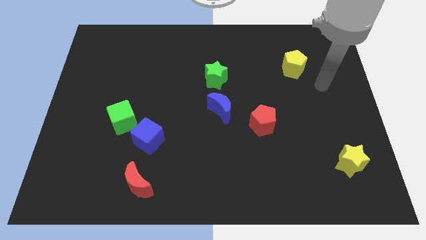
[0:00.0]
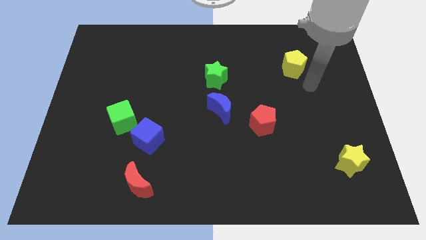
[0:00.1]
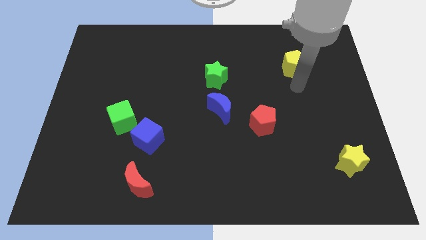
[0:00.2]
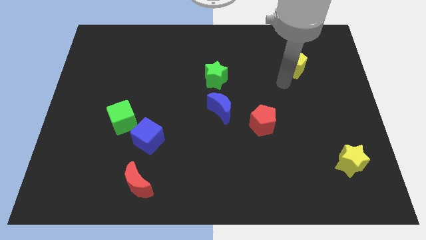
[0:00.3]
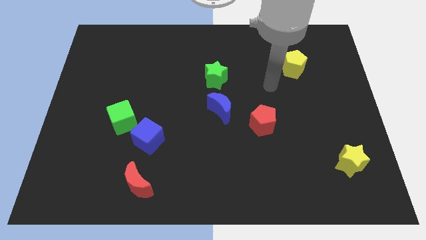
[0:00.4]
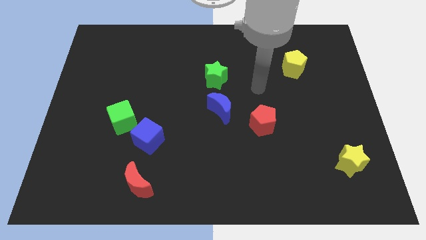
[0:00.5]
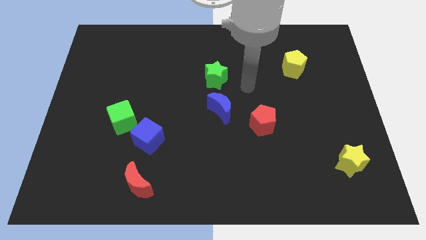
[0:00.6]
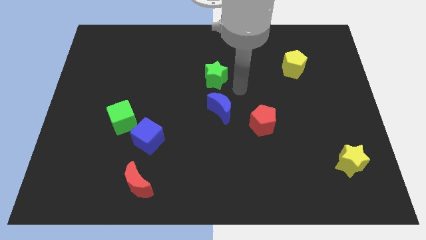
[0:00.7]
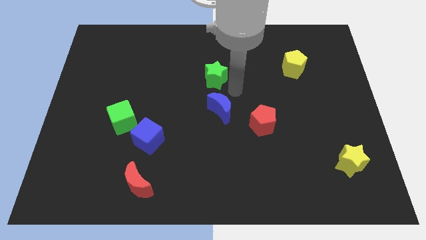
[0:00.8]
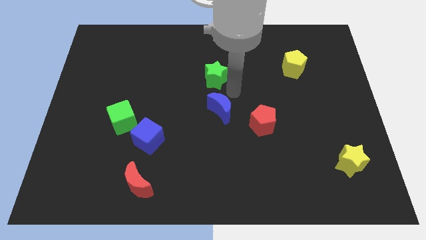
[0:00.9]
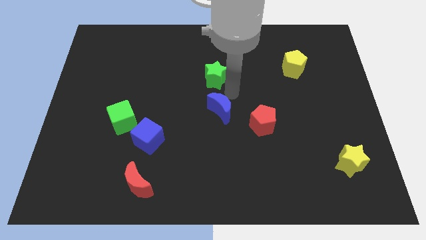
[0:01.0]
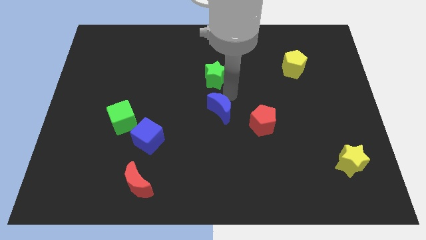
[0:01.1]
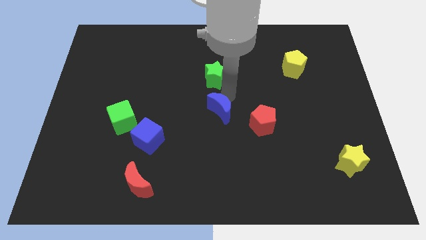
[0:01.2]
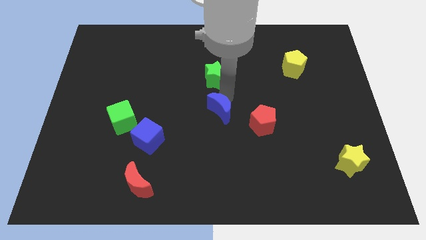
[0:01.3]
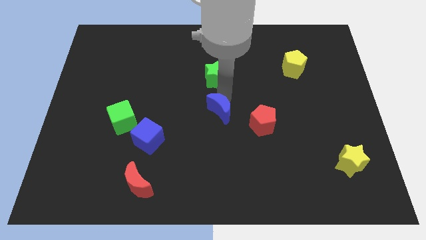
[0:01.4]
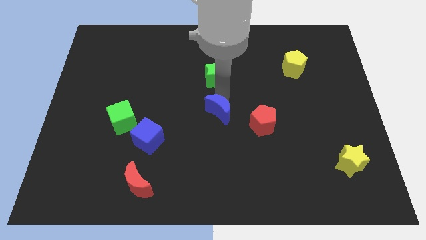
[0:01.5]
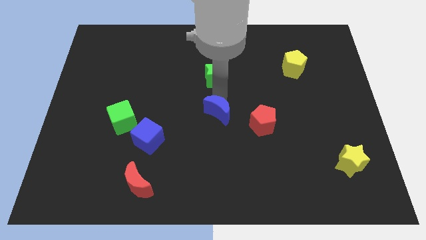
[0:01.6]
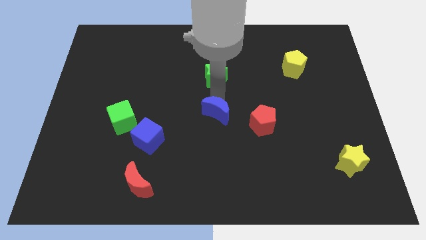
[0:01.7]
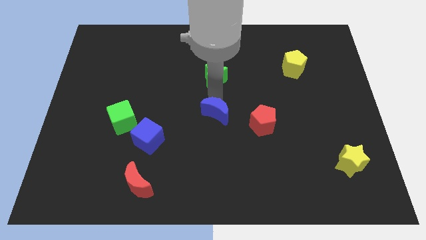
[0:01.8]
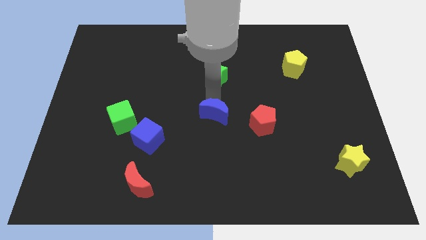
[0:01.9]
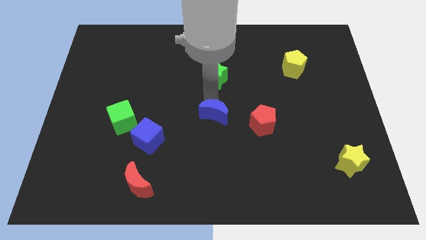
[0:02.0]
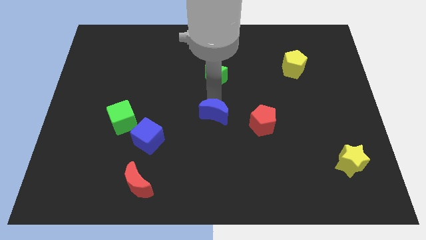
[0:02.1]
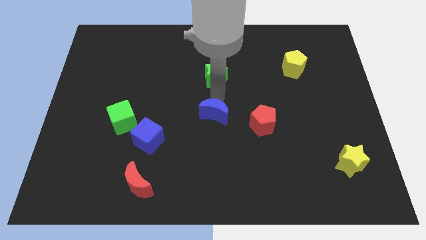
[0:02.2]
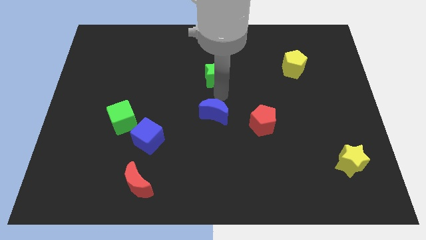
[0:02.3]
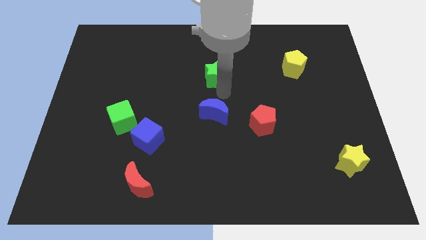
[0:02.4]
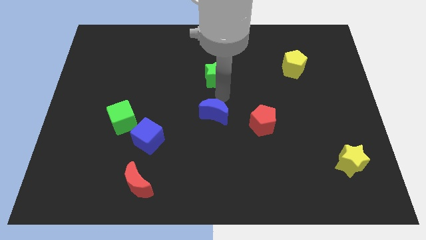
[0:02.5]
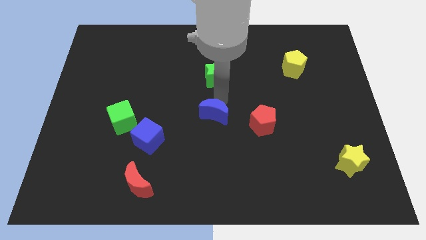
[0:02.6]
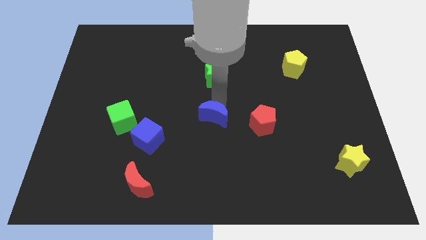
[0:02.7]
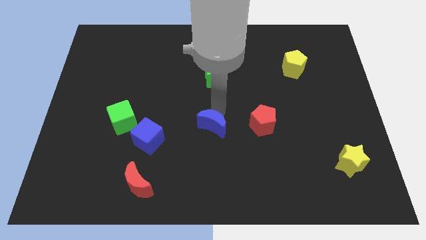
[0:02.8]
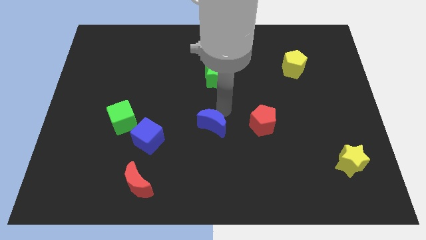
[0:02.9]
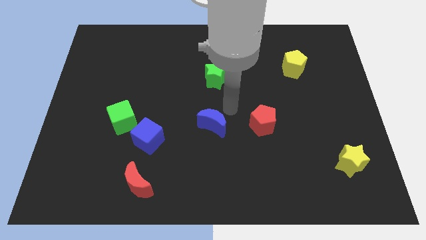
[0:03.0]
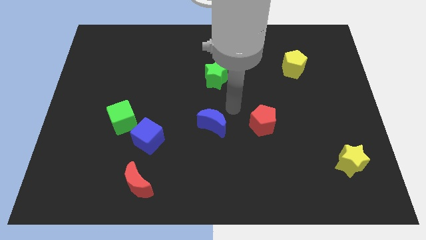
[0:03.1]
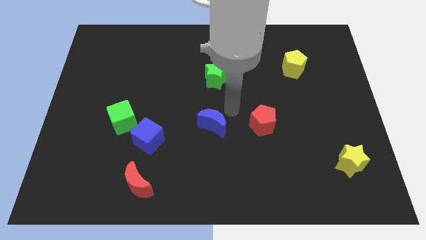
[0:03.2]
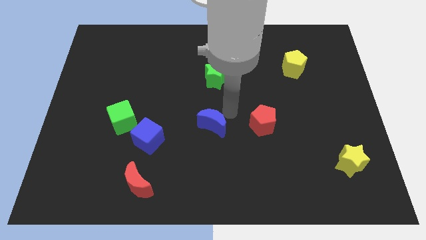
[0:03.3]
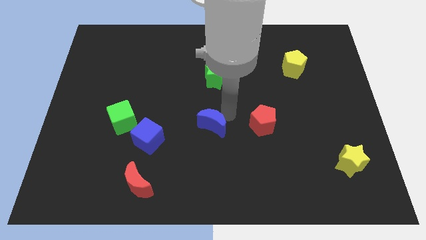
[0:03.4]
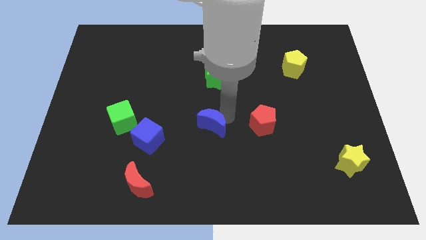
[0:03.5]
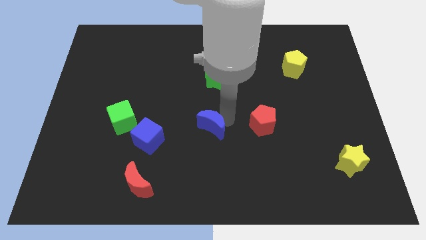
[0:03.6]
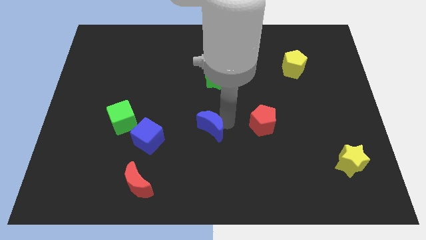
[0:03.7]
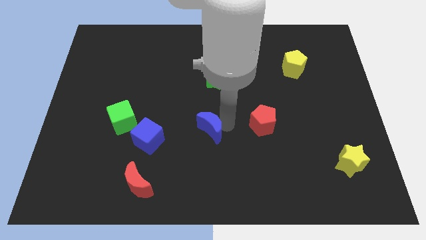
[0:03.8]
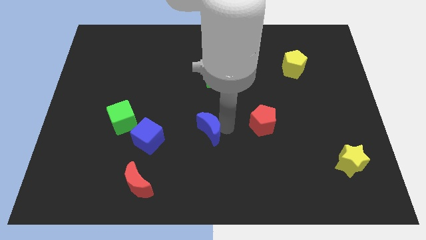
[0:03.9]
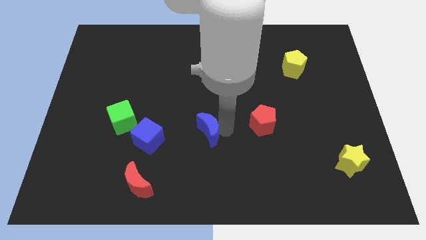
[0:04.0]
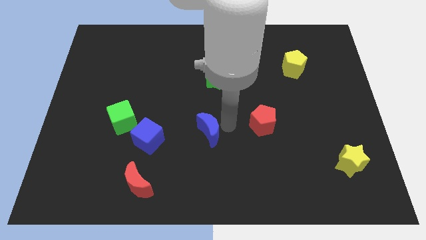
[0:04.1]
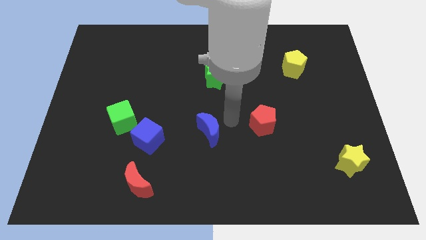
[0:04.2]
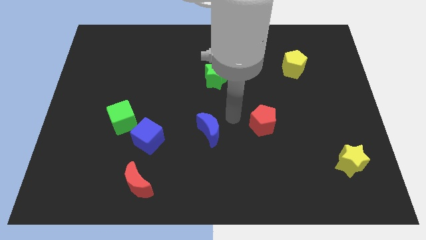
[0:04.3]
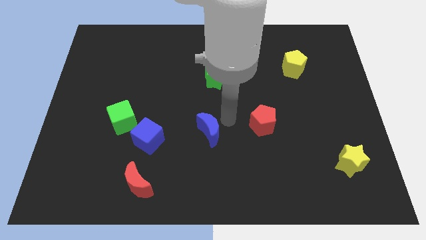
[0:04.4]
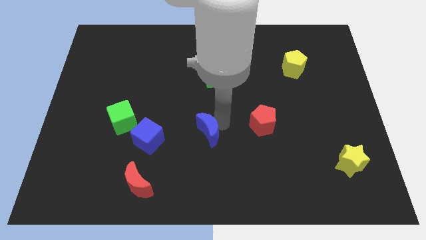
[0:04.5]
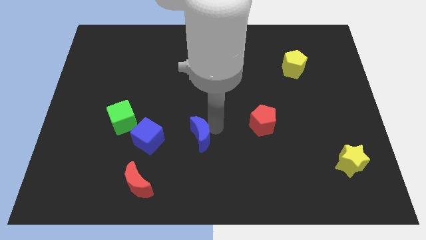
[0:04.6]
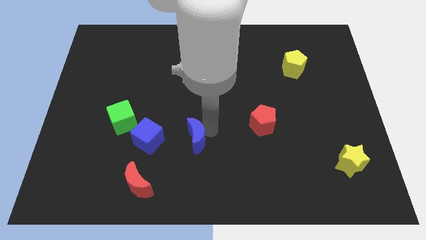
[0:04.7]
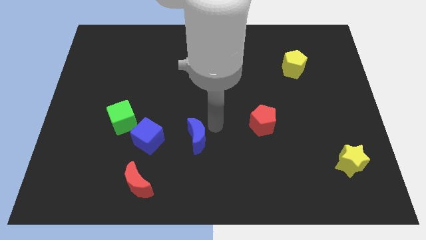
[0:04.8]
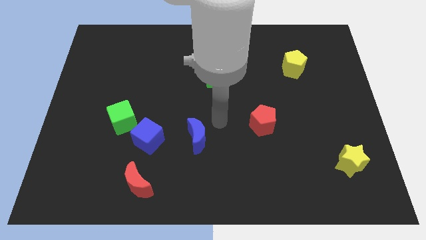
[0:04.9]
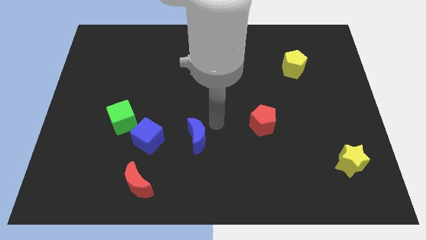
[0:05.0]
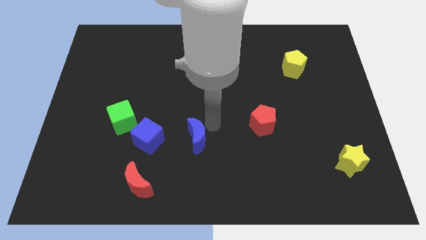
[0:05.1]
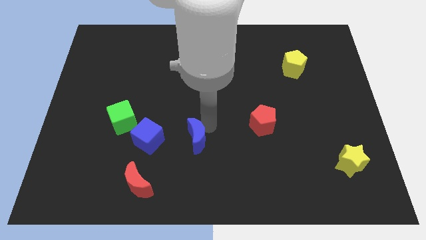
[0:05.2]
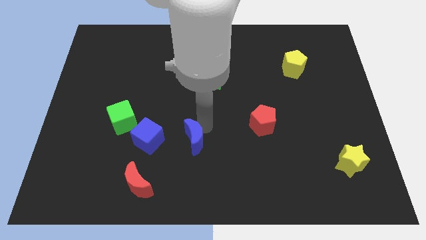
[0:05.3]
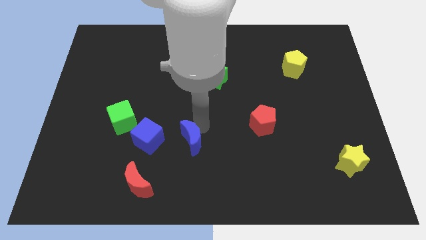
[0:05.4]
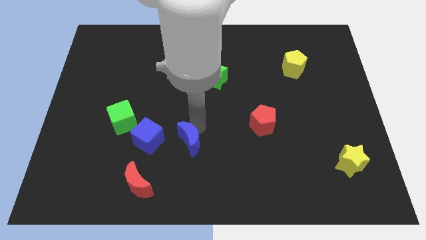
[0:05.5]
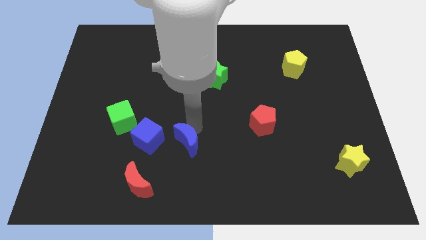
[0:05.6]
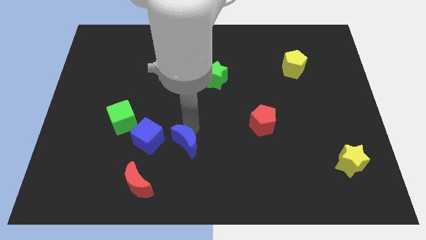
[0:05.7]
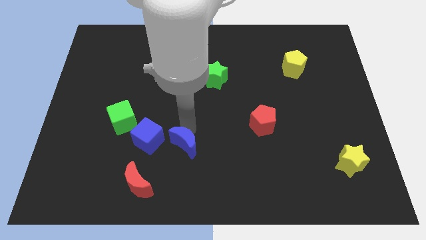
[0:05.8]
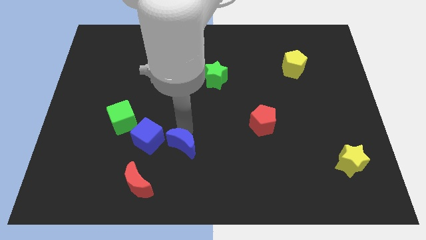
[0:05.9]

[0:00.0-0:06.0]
push the blue moon to the top right of the red moon

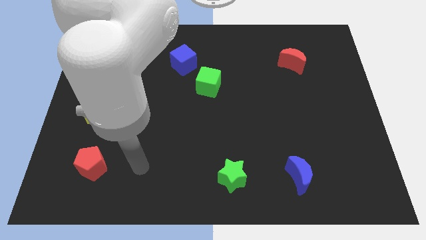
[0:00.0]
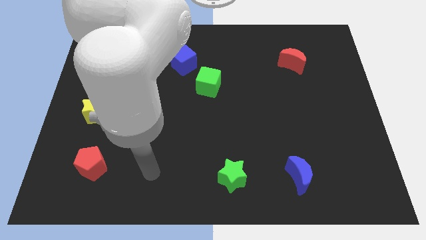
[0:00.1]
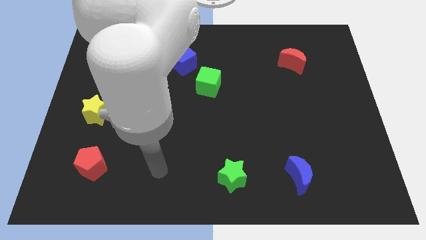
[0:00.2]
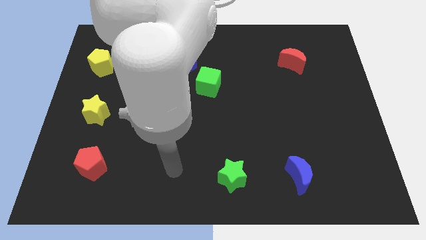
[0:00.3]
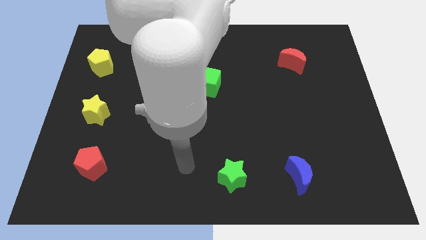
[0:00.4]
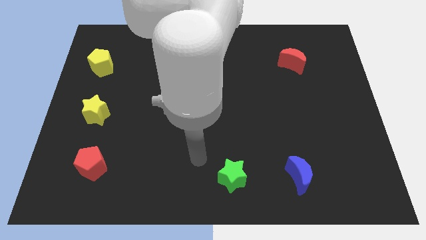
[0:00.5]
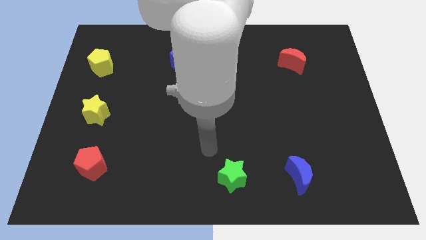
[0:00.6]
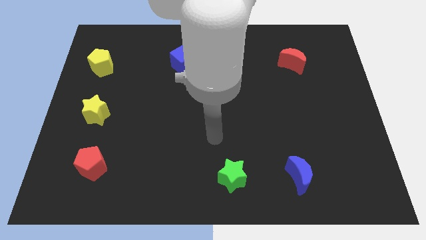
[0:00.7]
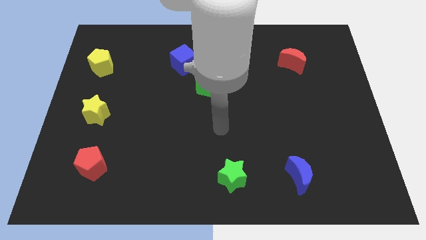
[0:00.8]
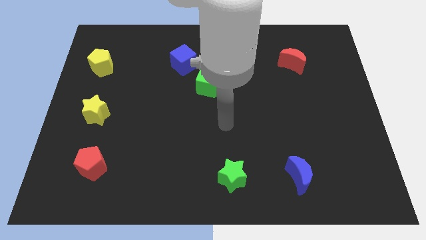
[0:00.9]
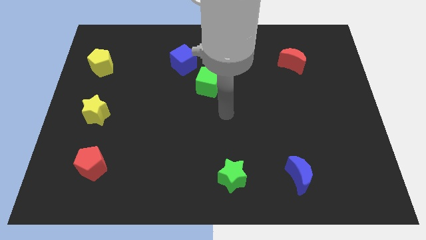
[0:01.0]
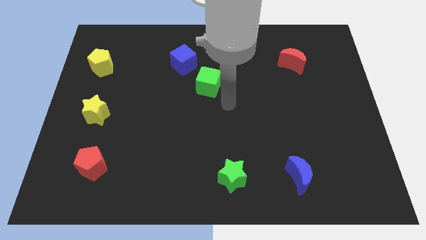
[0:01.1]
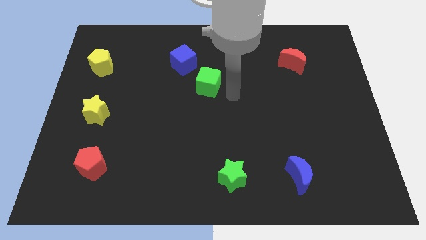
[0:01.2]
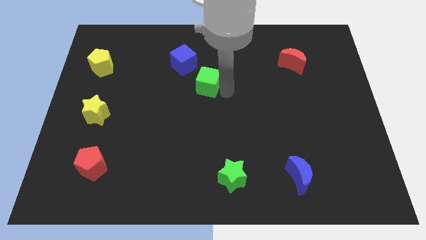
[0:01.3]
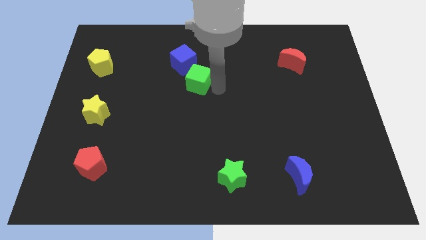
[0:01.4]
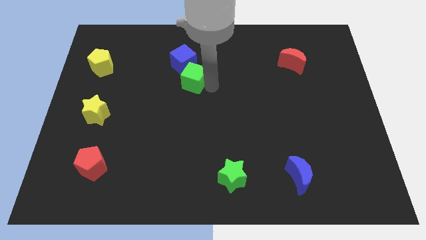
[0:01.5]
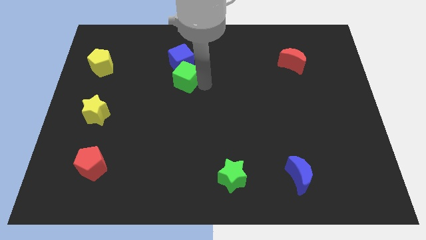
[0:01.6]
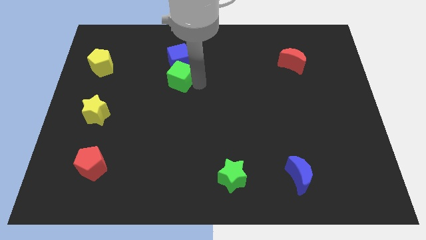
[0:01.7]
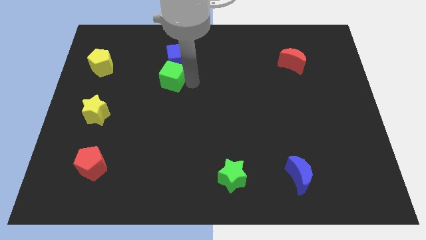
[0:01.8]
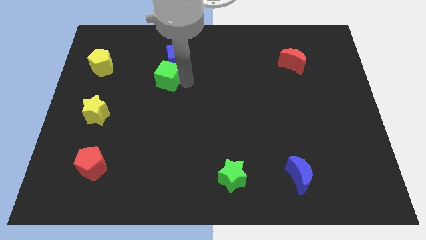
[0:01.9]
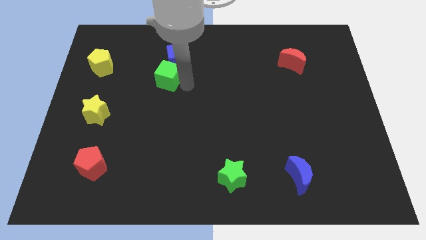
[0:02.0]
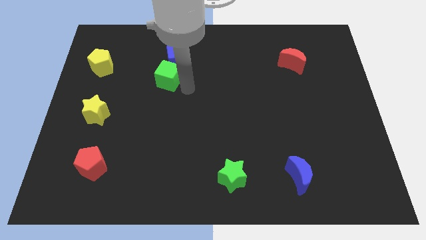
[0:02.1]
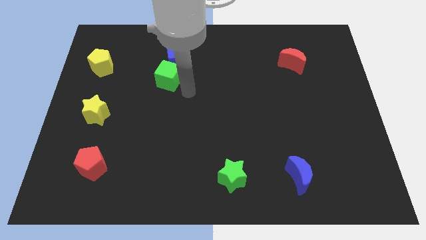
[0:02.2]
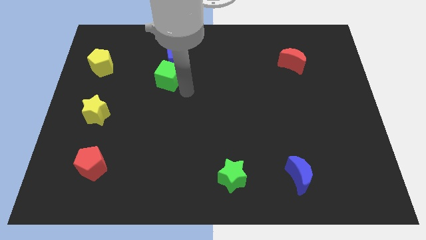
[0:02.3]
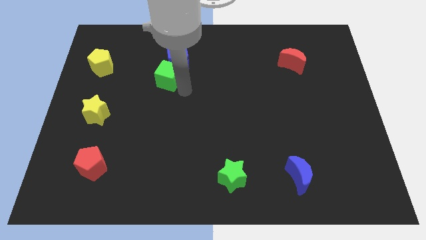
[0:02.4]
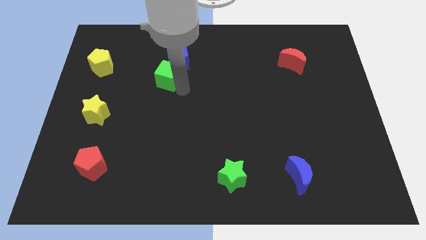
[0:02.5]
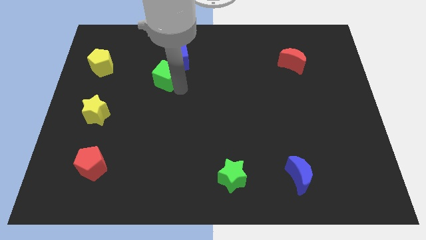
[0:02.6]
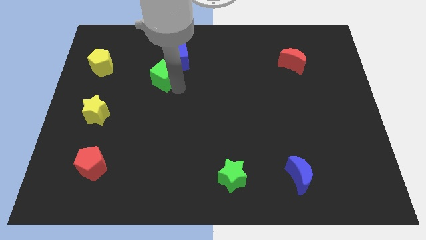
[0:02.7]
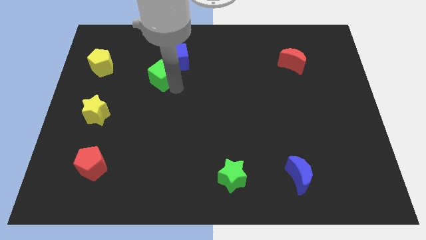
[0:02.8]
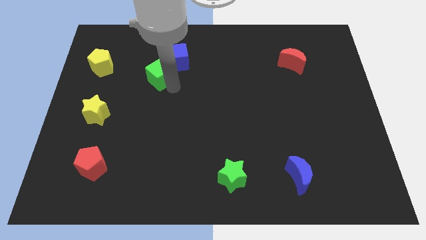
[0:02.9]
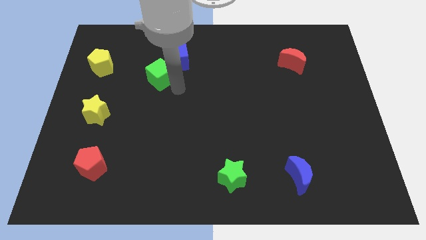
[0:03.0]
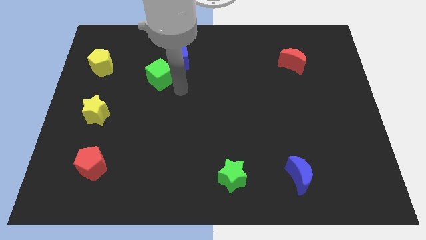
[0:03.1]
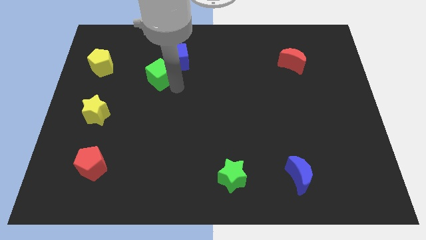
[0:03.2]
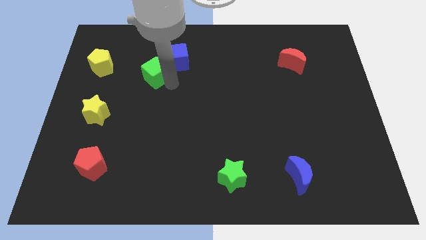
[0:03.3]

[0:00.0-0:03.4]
put the green cube to the right side of the yellow pentagon
